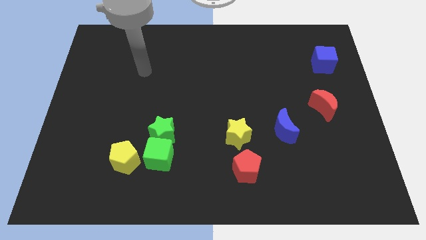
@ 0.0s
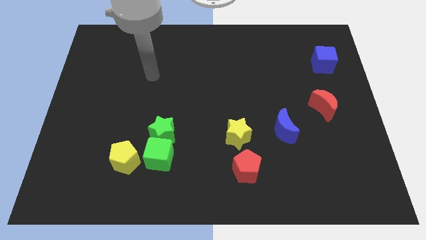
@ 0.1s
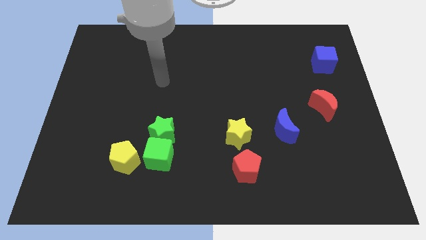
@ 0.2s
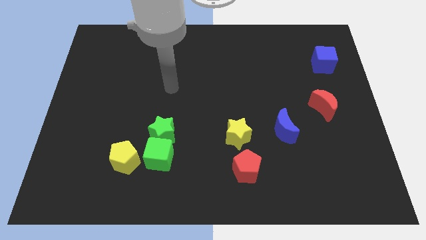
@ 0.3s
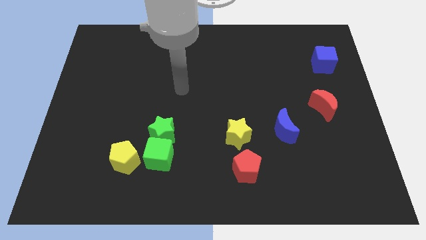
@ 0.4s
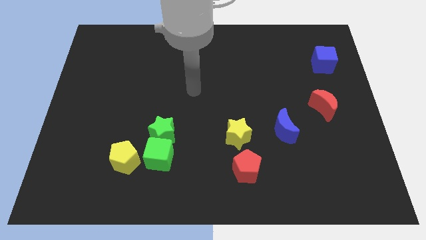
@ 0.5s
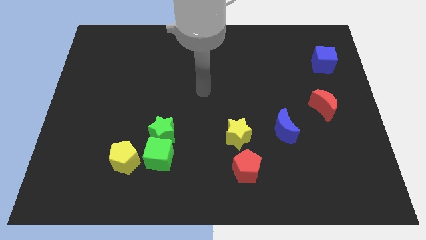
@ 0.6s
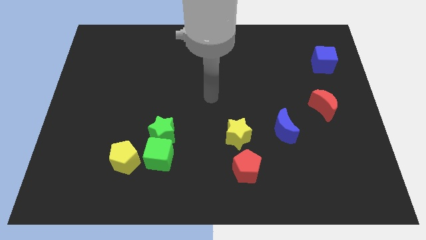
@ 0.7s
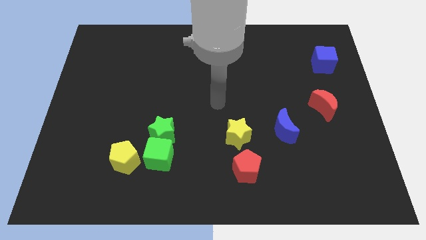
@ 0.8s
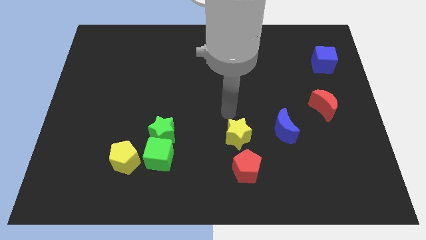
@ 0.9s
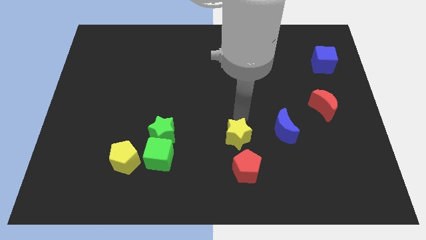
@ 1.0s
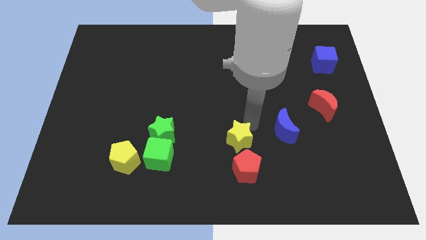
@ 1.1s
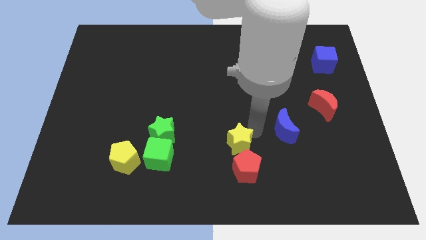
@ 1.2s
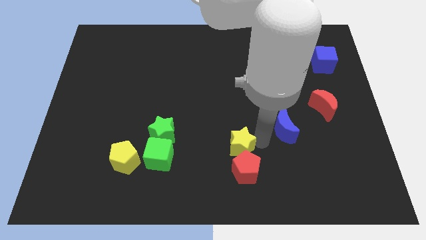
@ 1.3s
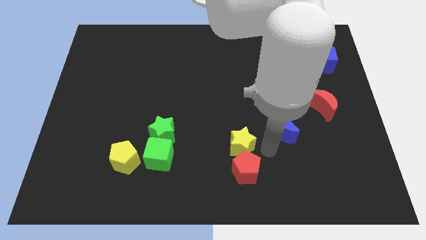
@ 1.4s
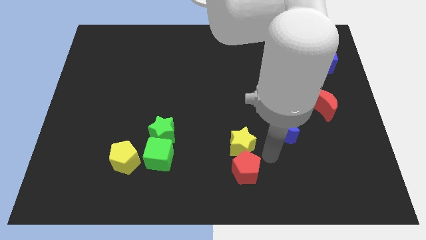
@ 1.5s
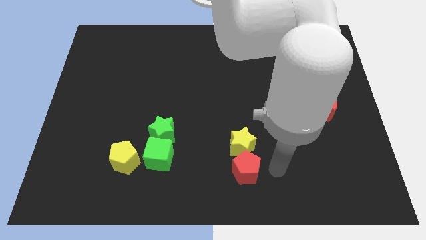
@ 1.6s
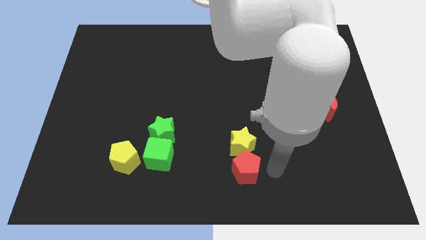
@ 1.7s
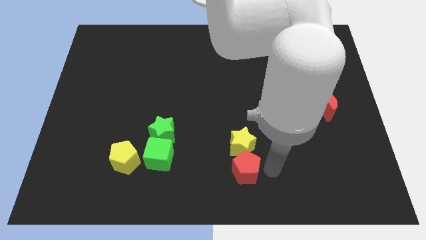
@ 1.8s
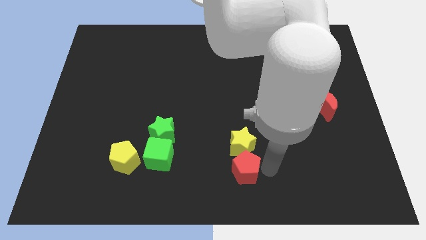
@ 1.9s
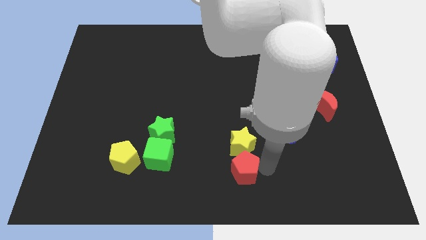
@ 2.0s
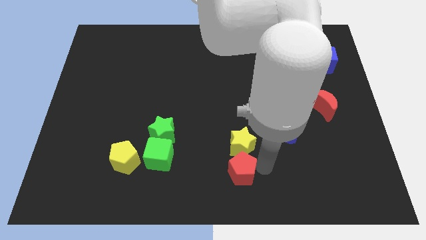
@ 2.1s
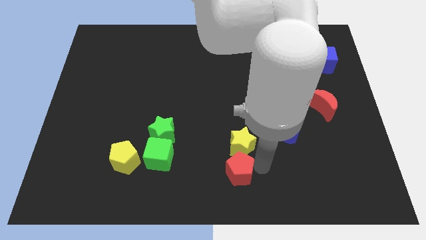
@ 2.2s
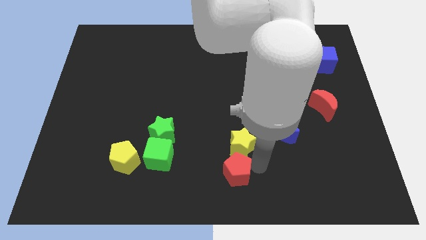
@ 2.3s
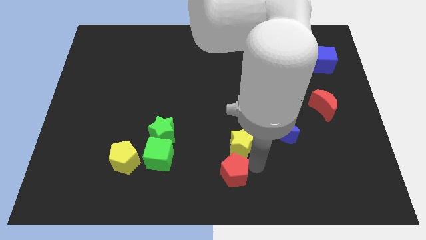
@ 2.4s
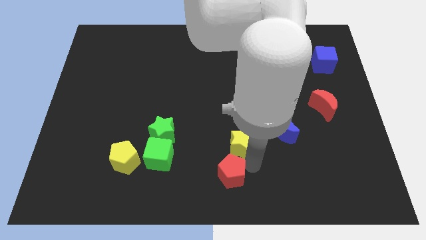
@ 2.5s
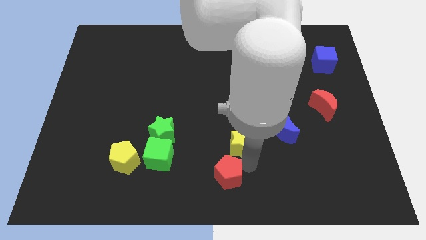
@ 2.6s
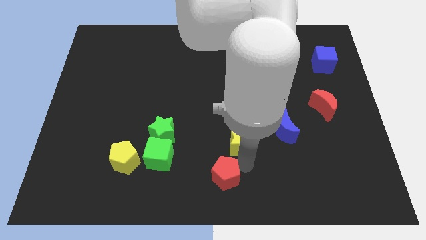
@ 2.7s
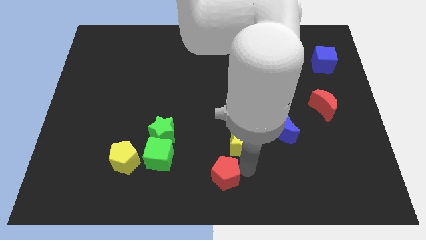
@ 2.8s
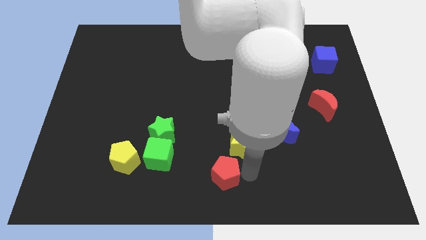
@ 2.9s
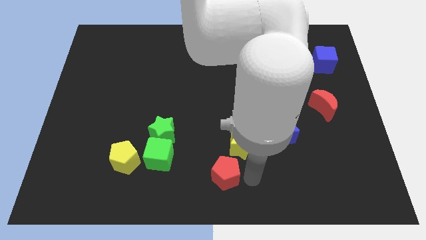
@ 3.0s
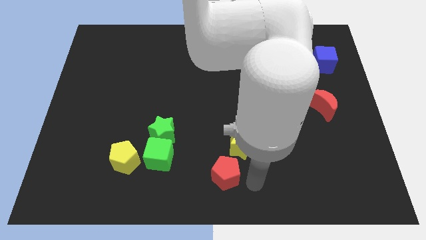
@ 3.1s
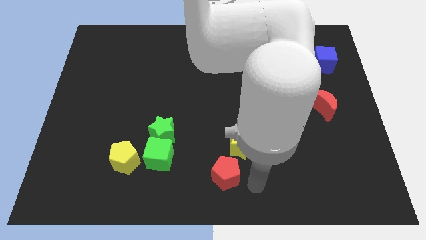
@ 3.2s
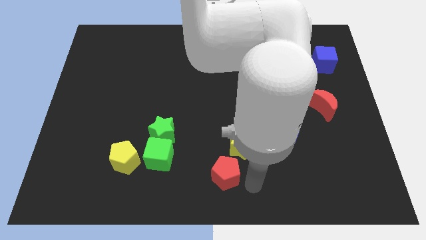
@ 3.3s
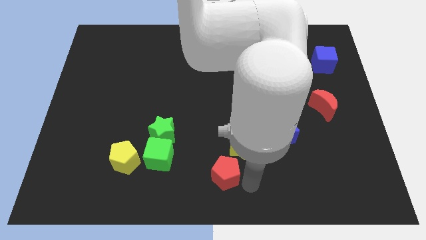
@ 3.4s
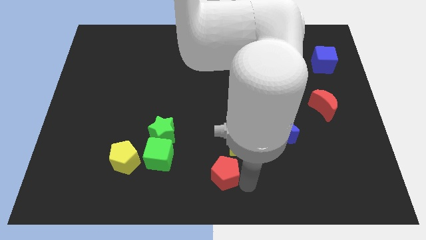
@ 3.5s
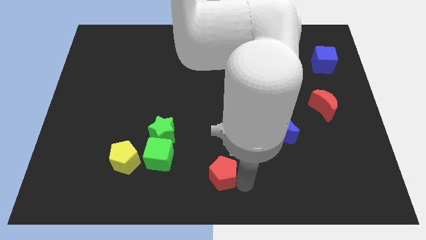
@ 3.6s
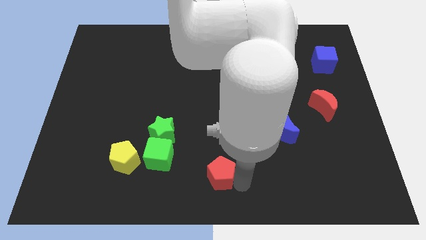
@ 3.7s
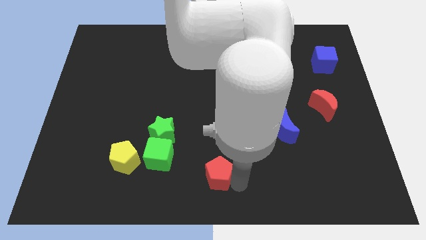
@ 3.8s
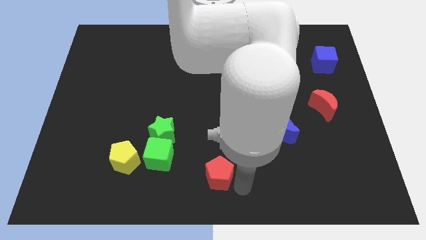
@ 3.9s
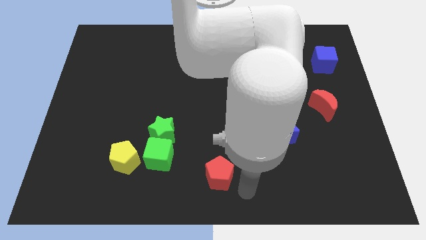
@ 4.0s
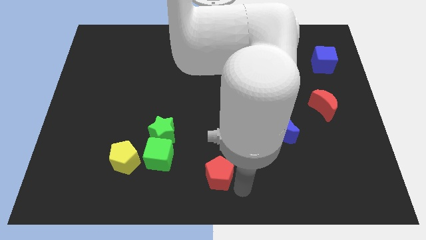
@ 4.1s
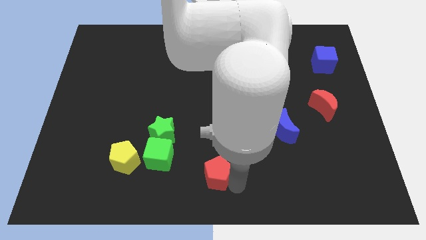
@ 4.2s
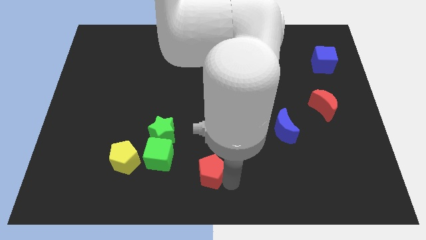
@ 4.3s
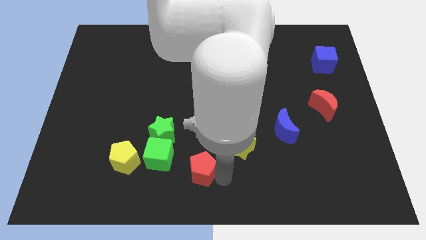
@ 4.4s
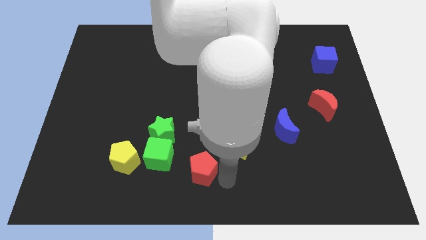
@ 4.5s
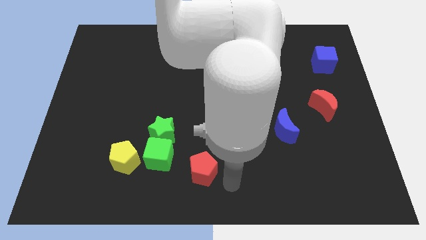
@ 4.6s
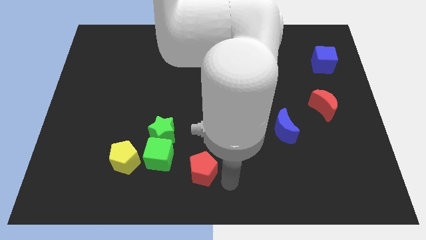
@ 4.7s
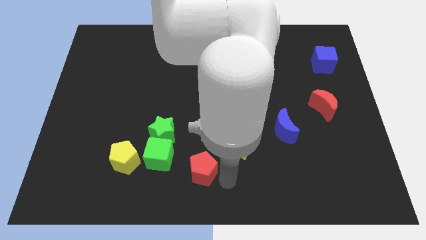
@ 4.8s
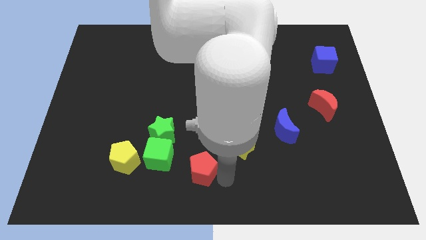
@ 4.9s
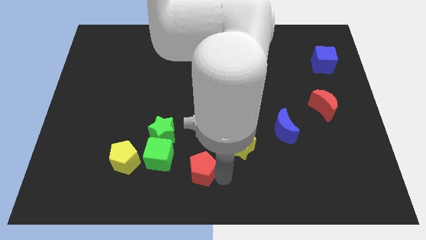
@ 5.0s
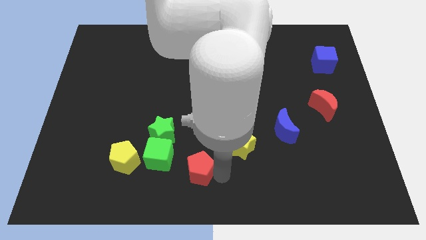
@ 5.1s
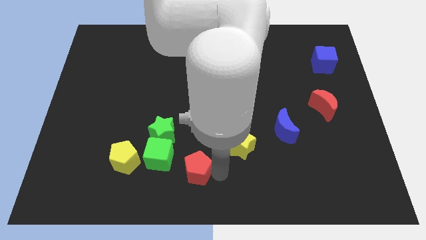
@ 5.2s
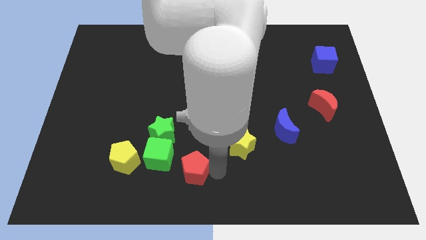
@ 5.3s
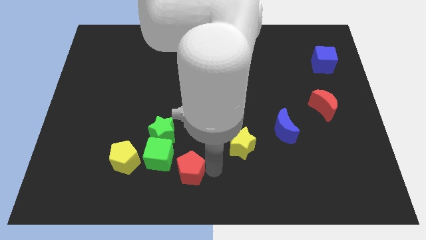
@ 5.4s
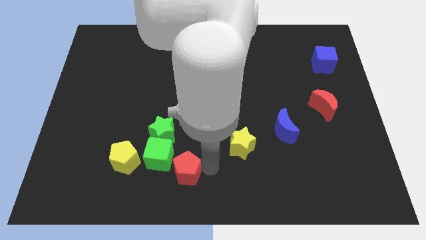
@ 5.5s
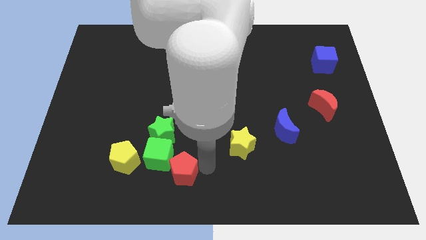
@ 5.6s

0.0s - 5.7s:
move the red pentagon towards the green cube

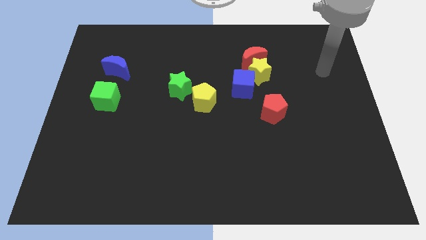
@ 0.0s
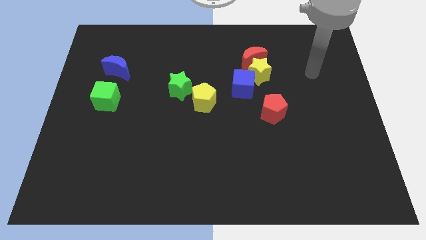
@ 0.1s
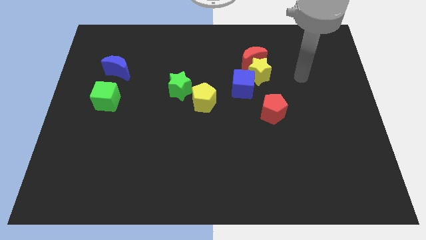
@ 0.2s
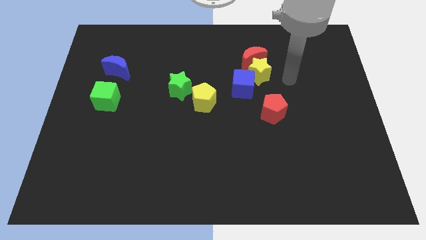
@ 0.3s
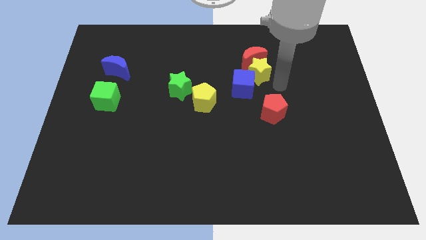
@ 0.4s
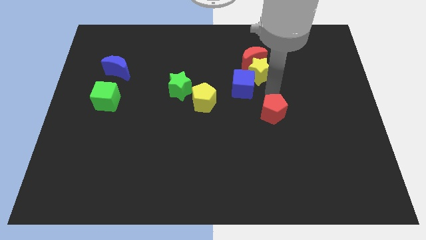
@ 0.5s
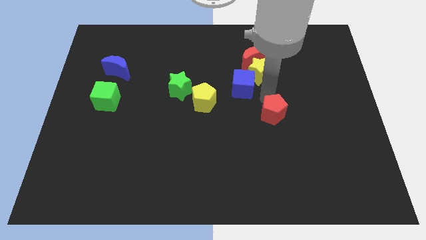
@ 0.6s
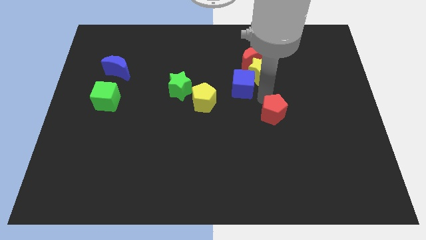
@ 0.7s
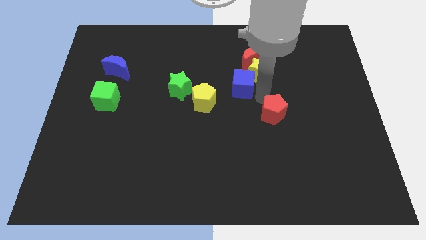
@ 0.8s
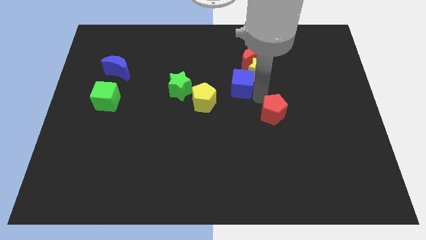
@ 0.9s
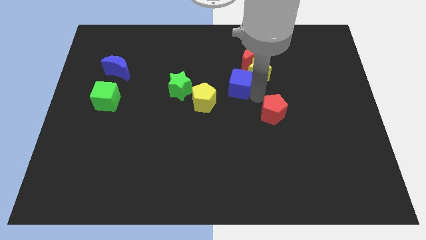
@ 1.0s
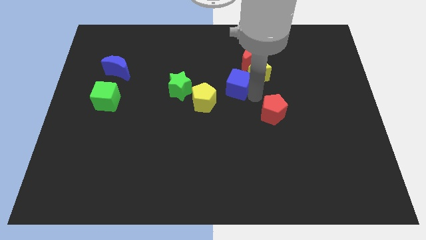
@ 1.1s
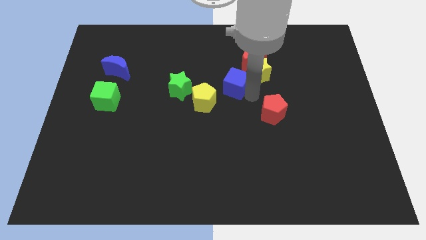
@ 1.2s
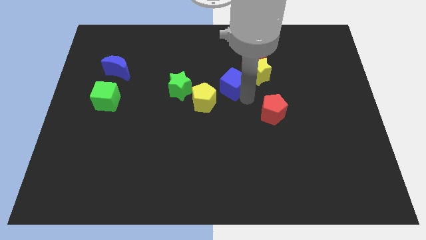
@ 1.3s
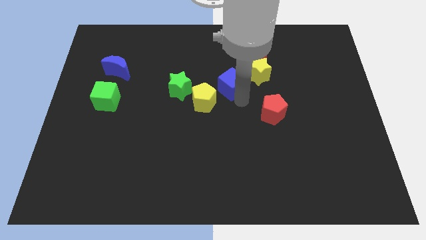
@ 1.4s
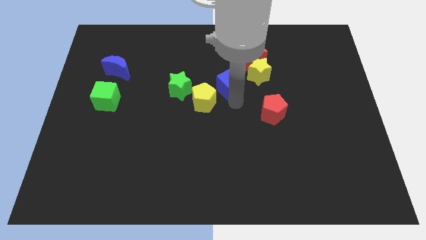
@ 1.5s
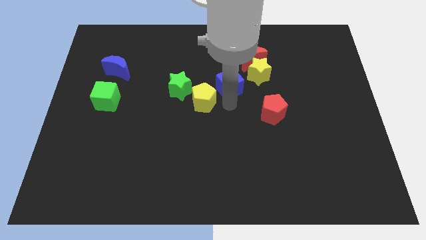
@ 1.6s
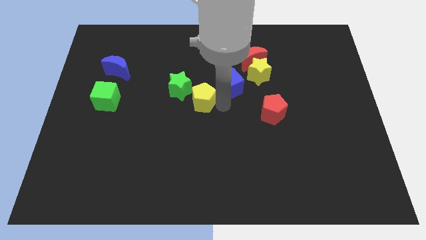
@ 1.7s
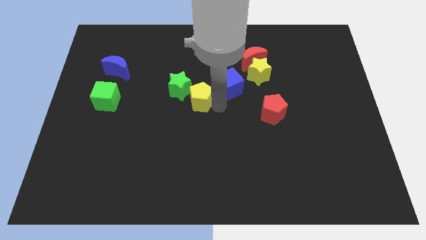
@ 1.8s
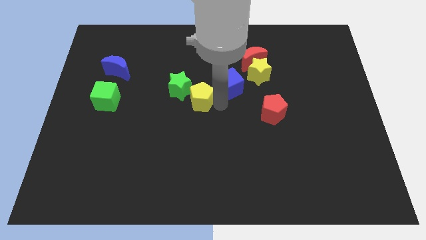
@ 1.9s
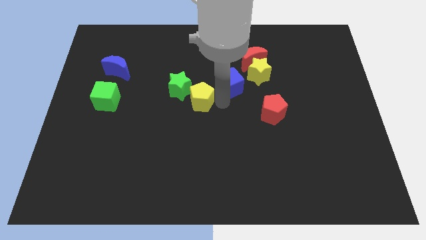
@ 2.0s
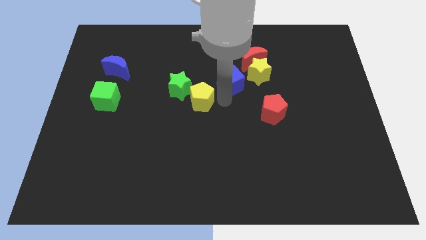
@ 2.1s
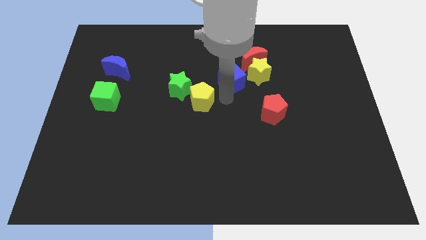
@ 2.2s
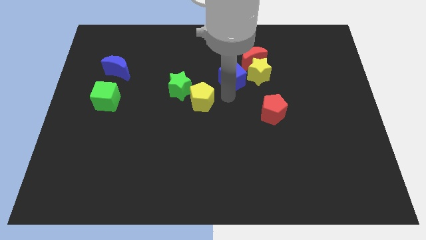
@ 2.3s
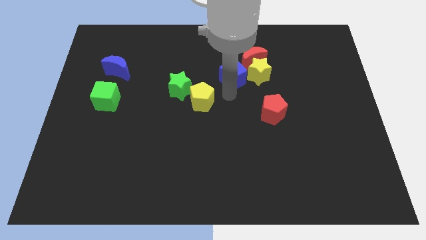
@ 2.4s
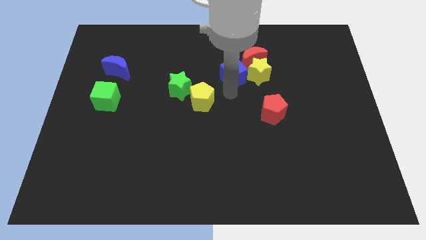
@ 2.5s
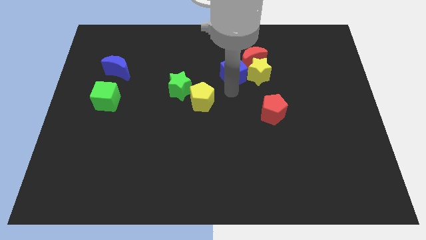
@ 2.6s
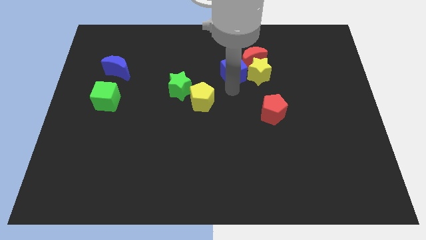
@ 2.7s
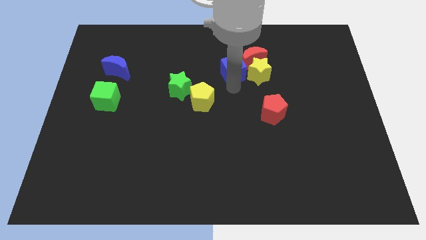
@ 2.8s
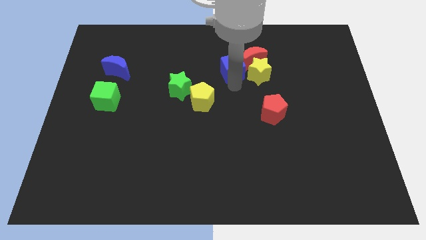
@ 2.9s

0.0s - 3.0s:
push the blue cube next to the red moon
